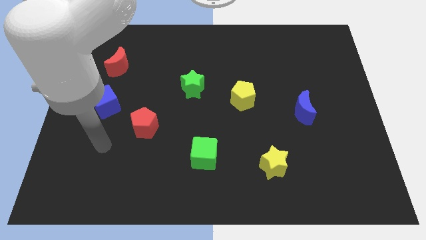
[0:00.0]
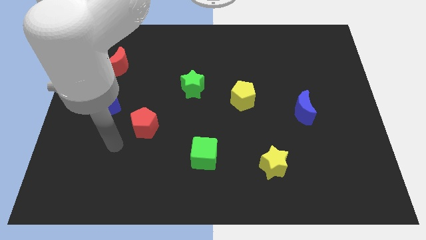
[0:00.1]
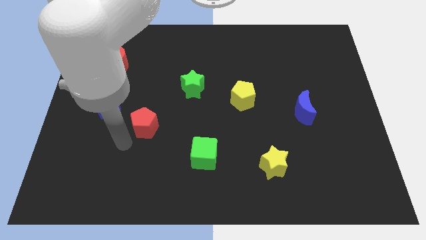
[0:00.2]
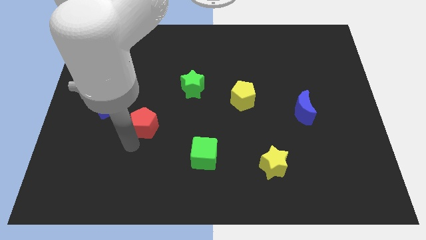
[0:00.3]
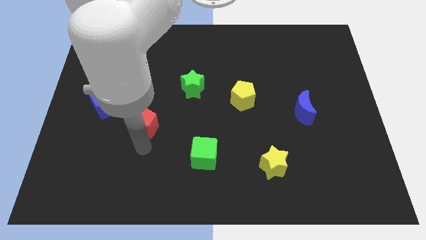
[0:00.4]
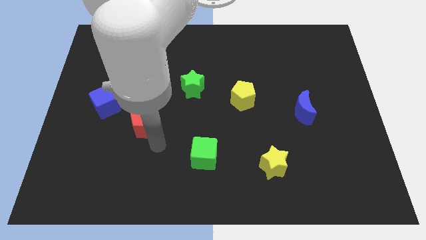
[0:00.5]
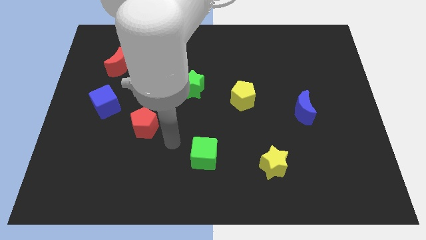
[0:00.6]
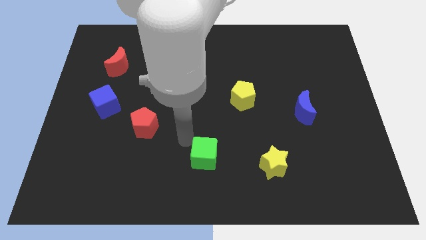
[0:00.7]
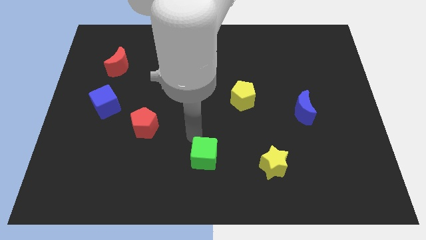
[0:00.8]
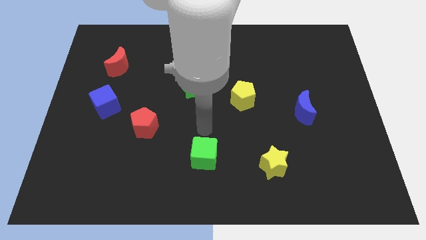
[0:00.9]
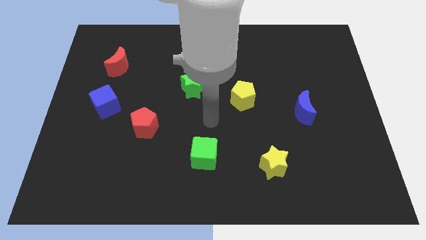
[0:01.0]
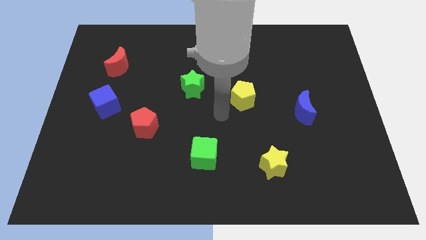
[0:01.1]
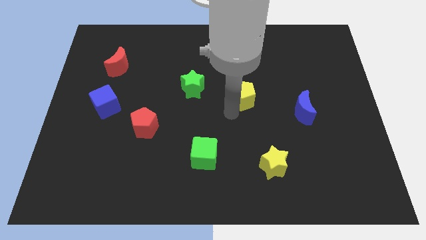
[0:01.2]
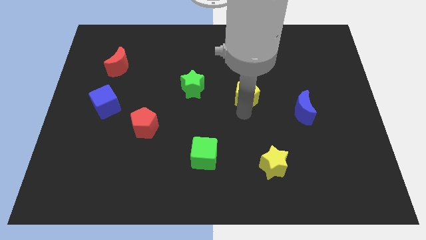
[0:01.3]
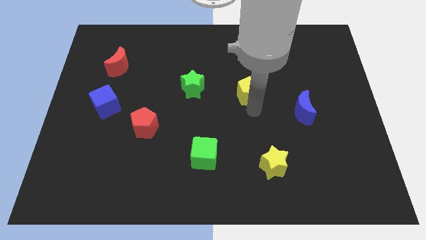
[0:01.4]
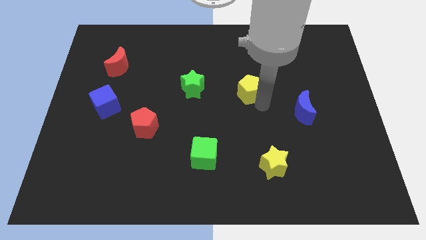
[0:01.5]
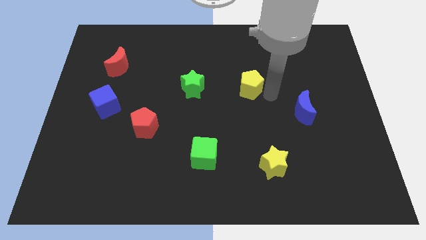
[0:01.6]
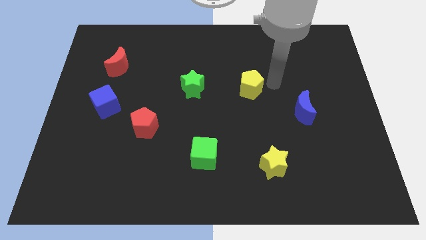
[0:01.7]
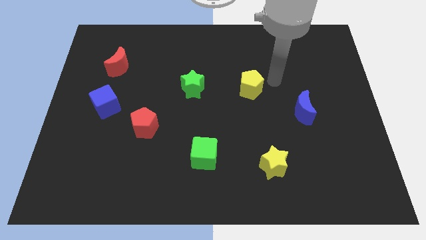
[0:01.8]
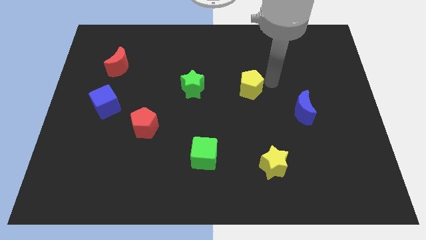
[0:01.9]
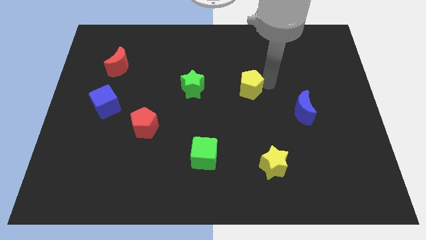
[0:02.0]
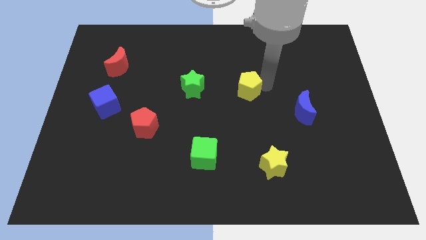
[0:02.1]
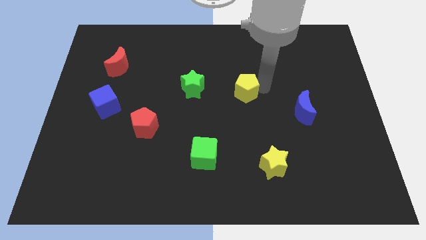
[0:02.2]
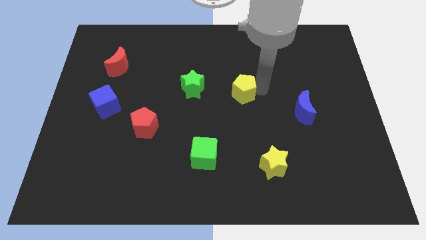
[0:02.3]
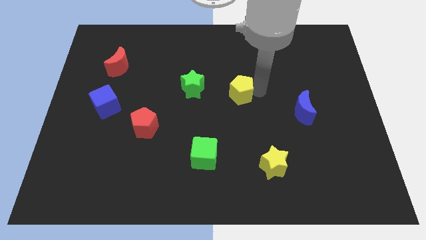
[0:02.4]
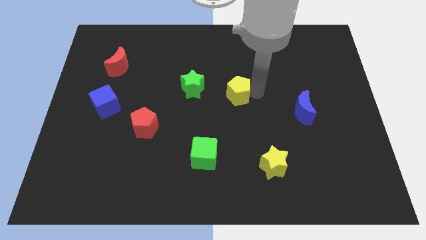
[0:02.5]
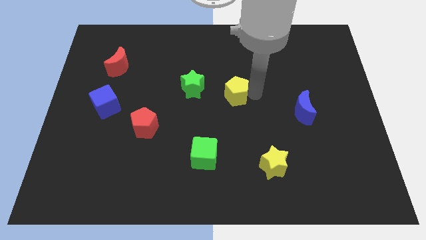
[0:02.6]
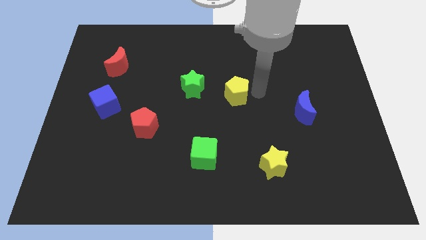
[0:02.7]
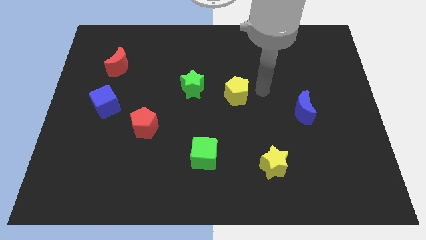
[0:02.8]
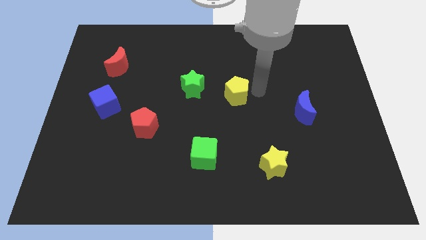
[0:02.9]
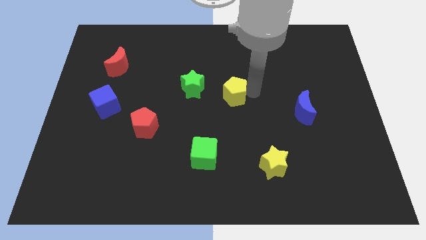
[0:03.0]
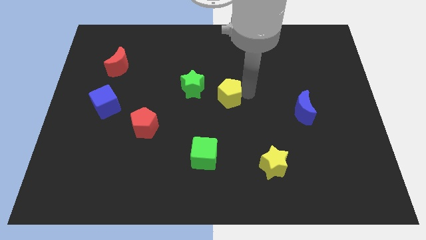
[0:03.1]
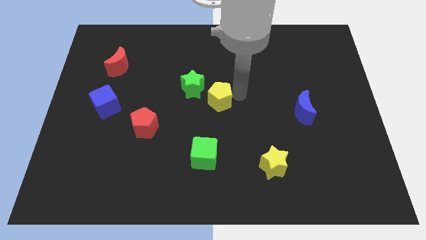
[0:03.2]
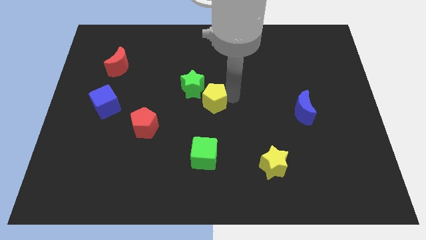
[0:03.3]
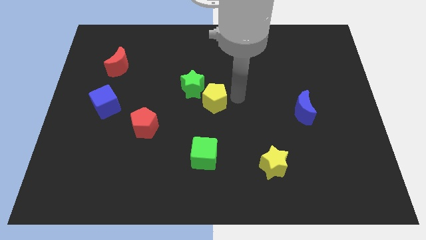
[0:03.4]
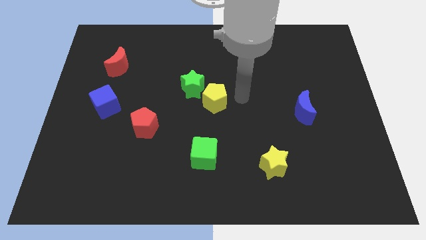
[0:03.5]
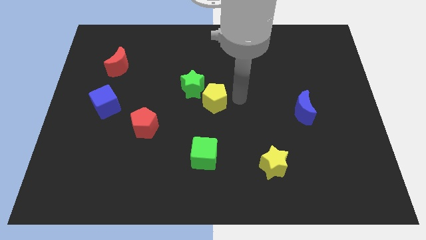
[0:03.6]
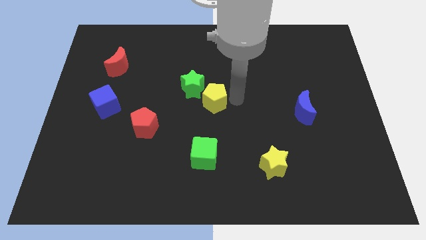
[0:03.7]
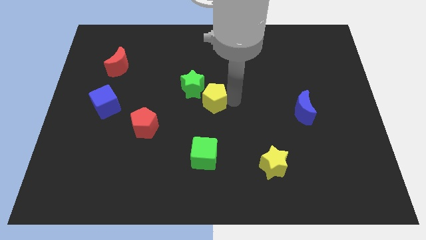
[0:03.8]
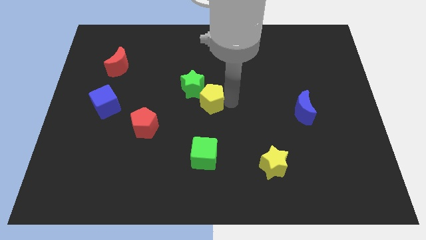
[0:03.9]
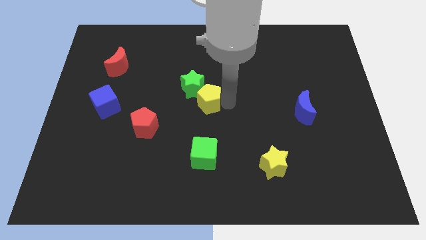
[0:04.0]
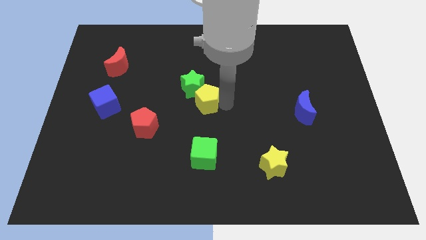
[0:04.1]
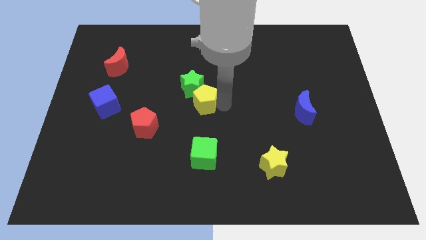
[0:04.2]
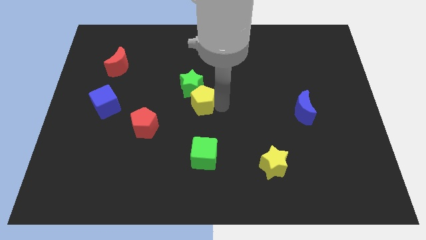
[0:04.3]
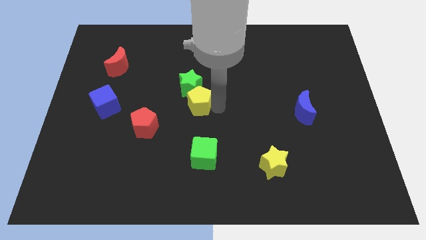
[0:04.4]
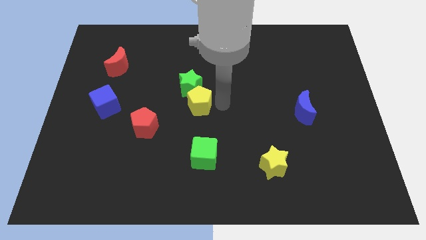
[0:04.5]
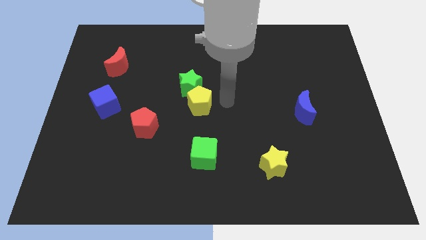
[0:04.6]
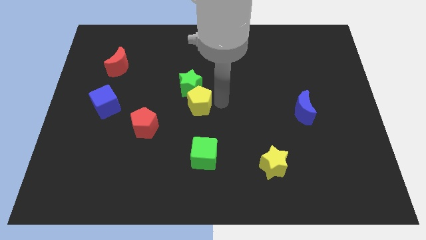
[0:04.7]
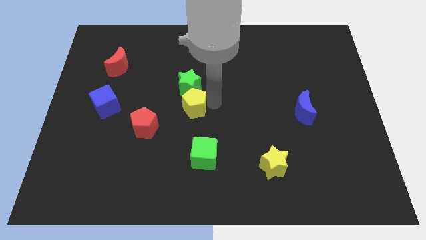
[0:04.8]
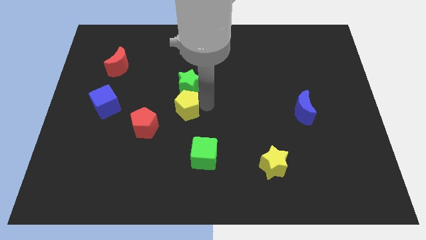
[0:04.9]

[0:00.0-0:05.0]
slide the yellow pentagon to the top right side of the red pentagon

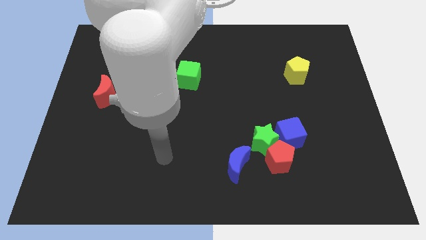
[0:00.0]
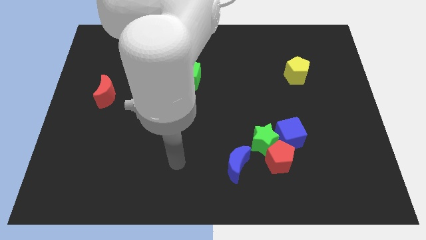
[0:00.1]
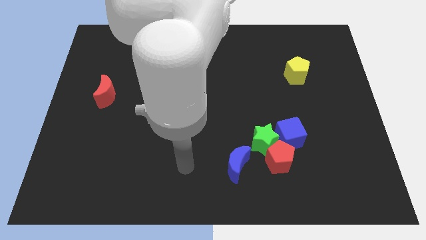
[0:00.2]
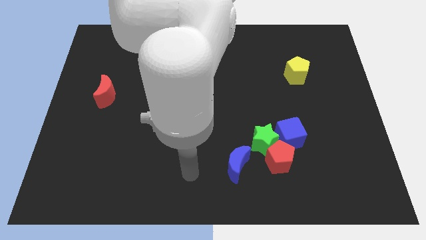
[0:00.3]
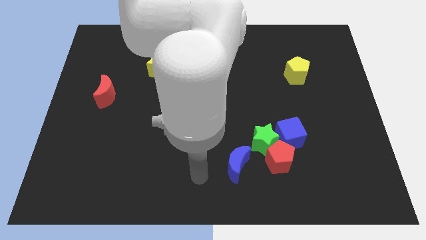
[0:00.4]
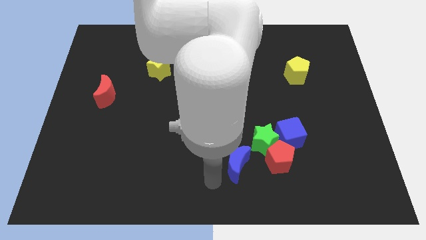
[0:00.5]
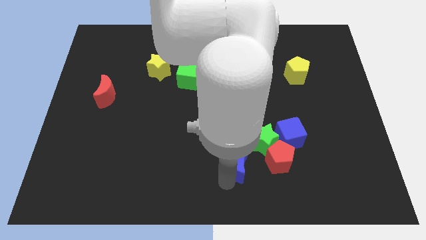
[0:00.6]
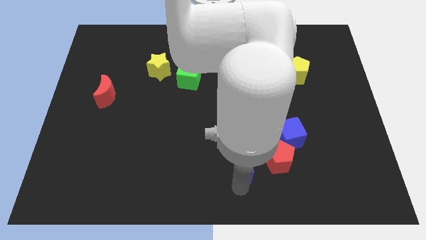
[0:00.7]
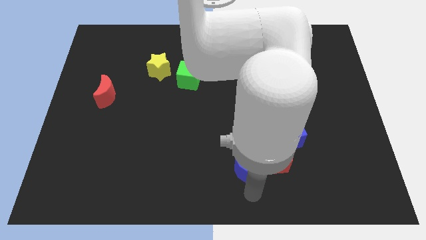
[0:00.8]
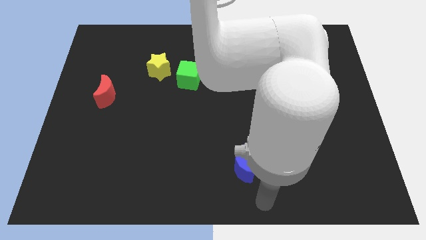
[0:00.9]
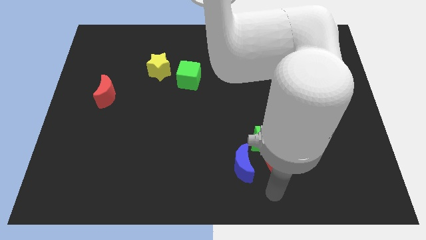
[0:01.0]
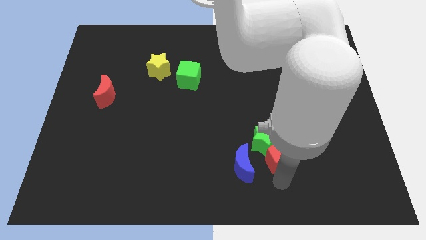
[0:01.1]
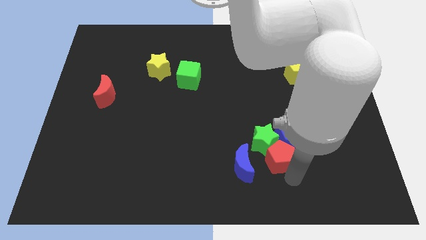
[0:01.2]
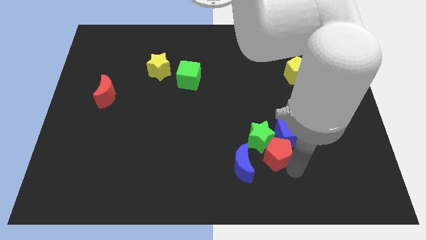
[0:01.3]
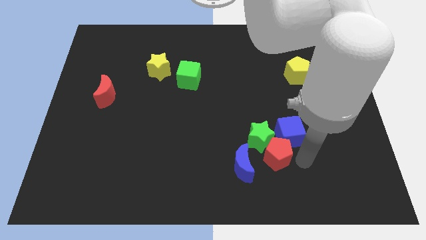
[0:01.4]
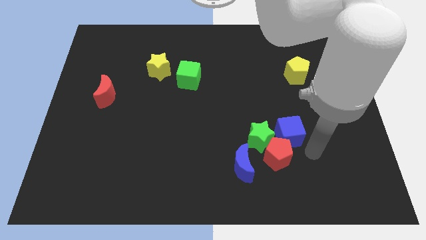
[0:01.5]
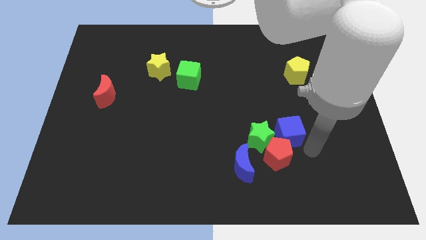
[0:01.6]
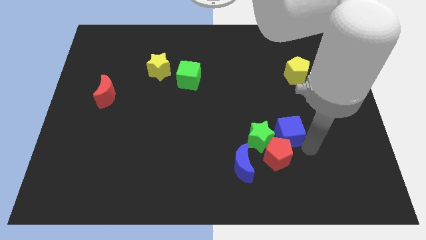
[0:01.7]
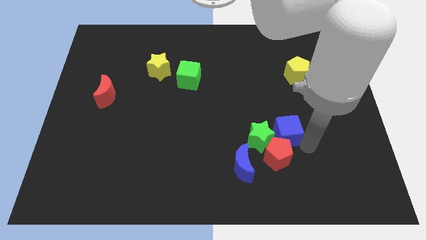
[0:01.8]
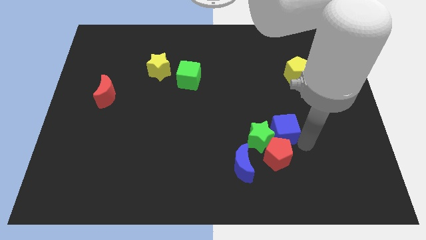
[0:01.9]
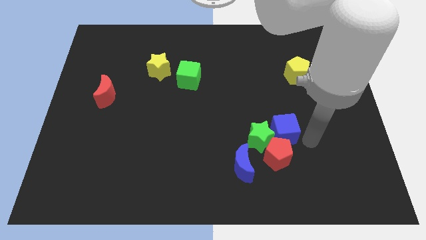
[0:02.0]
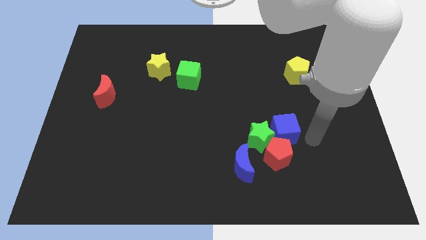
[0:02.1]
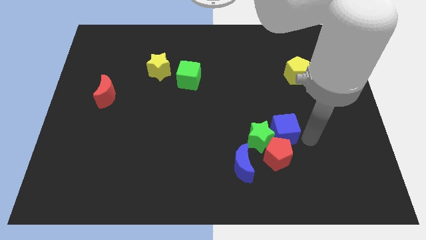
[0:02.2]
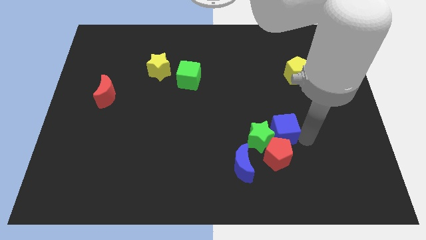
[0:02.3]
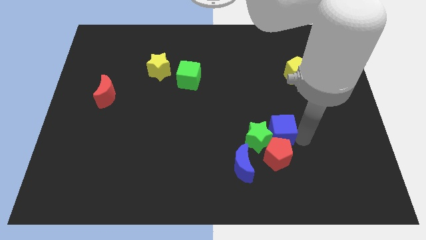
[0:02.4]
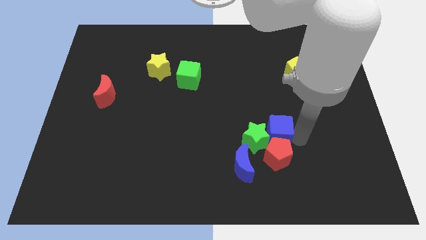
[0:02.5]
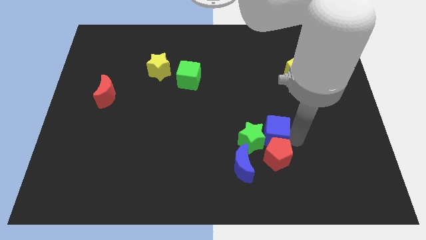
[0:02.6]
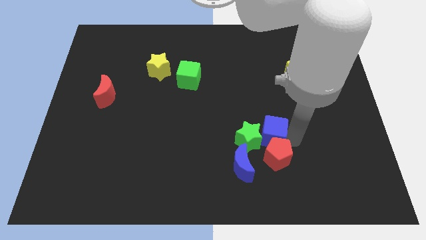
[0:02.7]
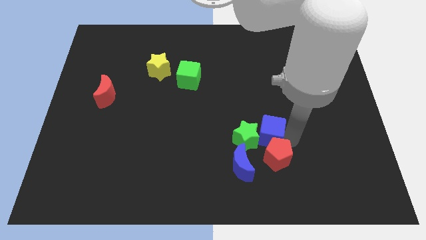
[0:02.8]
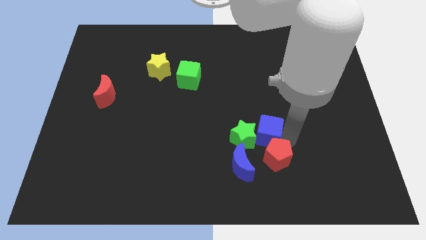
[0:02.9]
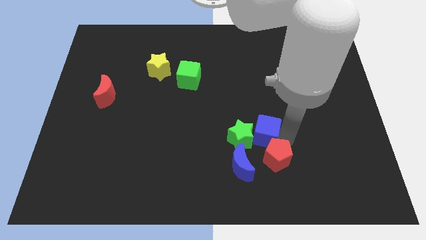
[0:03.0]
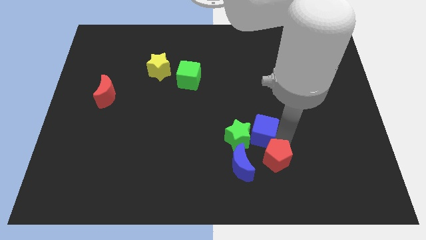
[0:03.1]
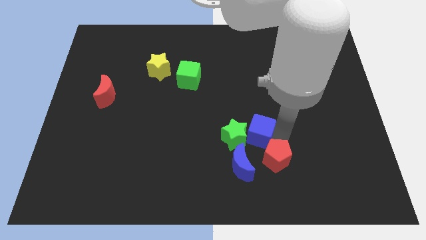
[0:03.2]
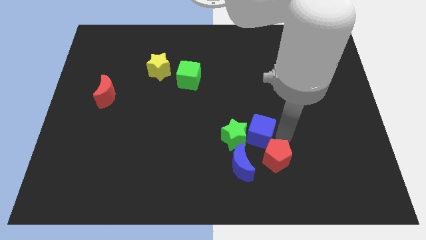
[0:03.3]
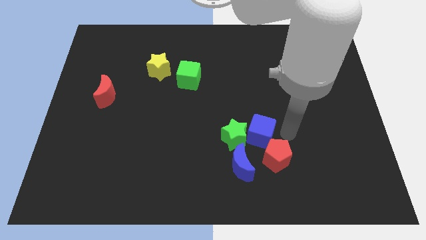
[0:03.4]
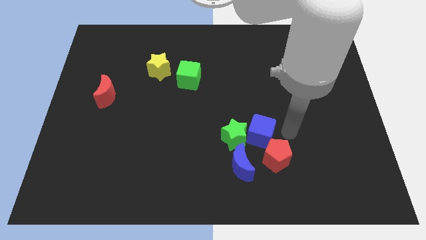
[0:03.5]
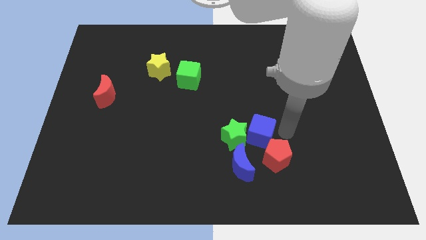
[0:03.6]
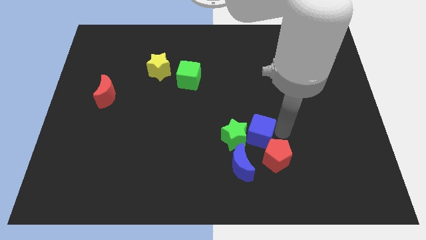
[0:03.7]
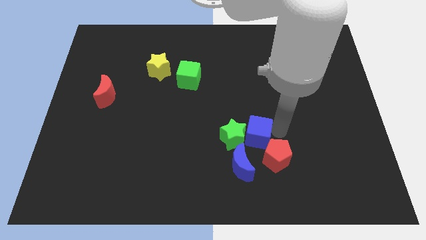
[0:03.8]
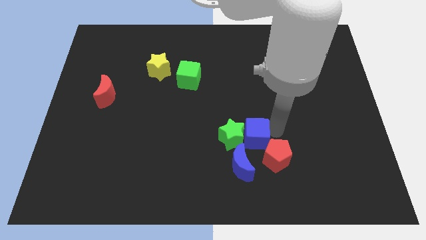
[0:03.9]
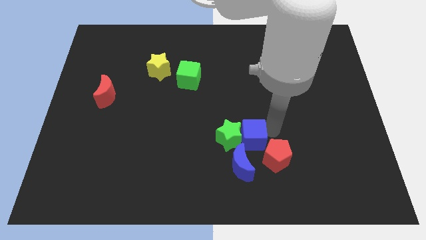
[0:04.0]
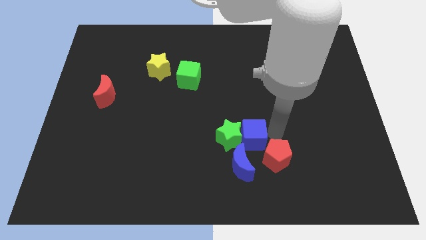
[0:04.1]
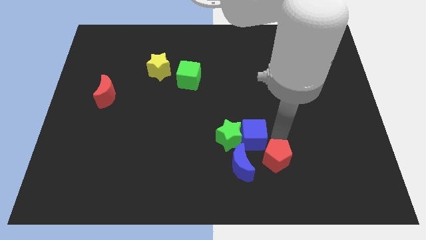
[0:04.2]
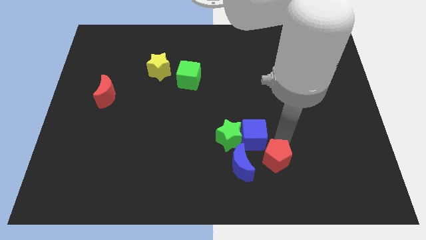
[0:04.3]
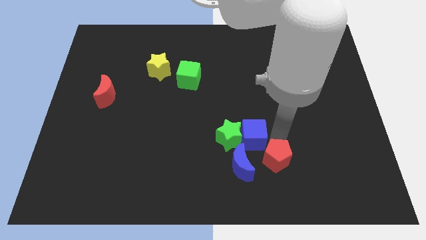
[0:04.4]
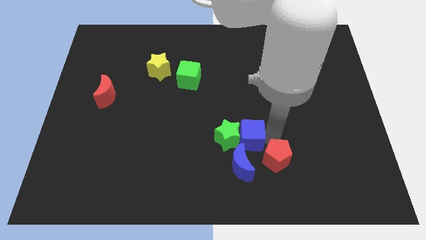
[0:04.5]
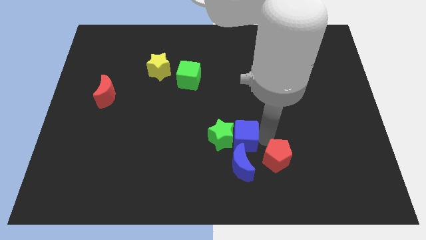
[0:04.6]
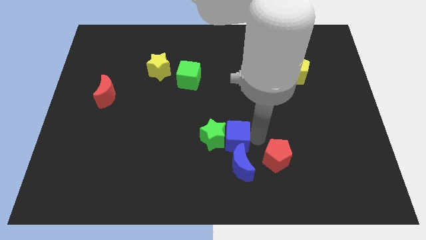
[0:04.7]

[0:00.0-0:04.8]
move the blue cube to the top left of the blue moon
